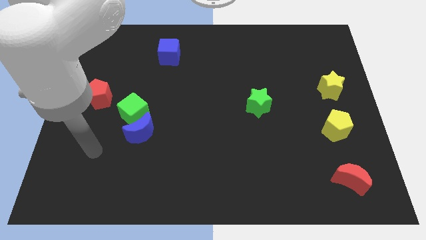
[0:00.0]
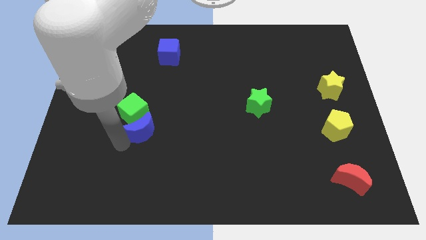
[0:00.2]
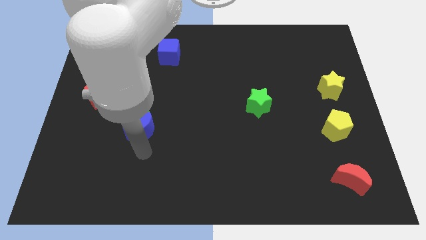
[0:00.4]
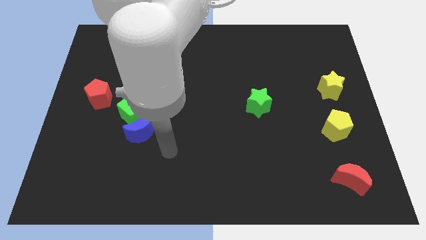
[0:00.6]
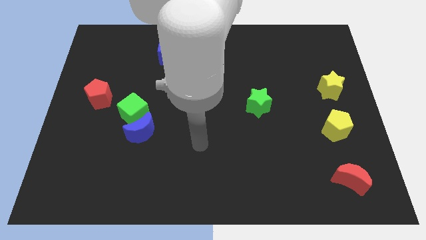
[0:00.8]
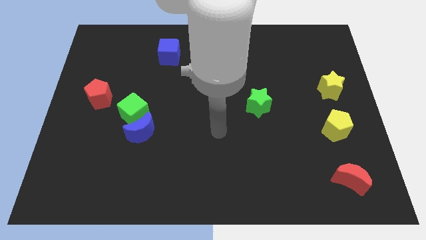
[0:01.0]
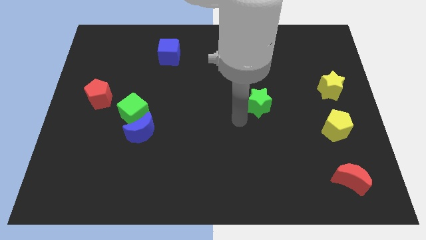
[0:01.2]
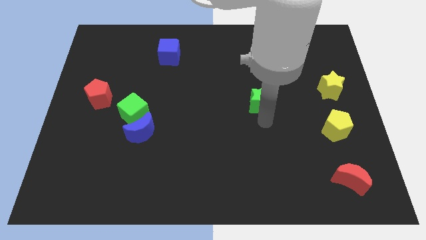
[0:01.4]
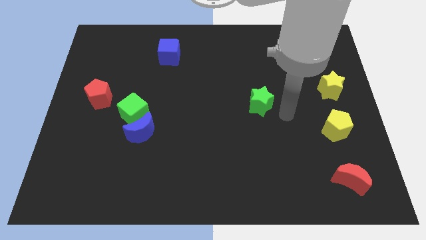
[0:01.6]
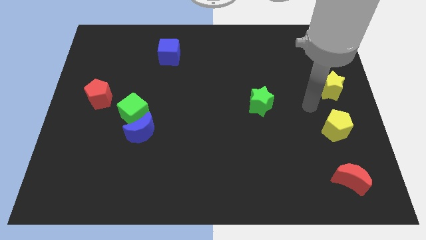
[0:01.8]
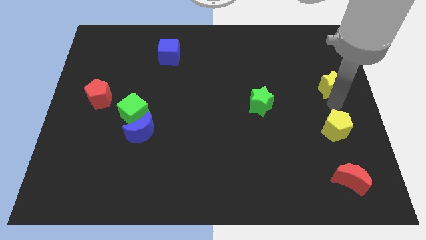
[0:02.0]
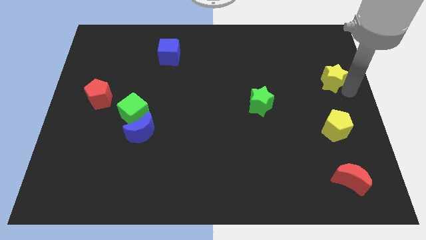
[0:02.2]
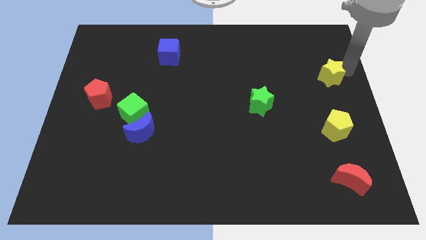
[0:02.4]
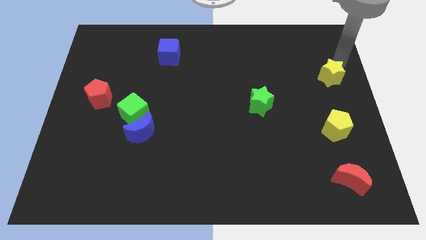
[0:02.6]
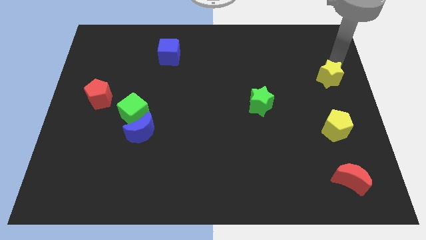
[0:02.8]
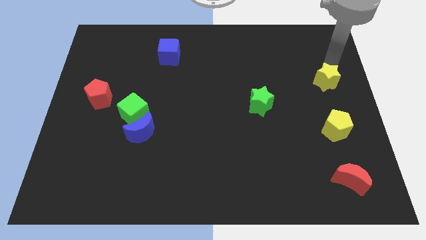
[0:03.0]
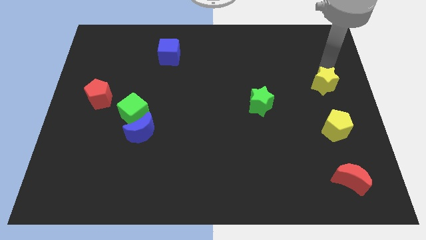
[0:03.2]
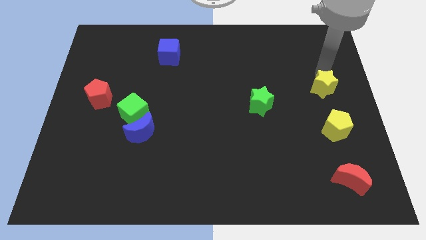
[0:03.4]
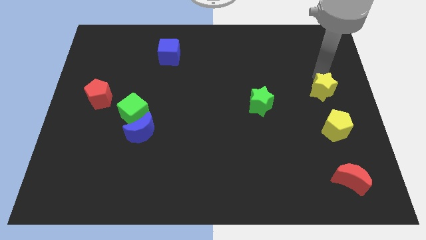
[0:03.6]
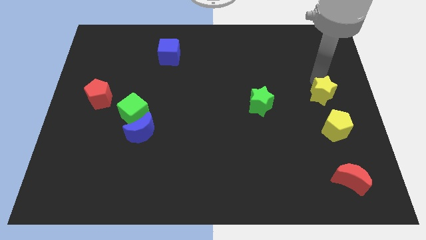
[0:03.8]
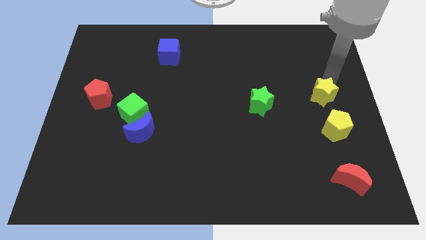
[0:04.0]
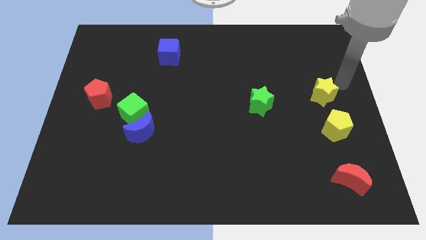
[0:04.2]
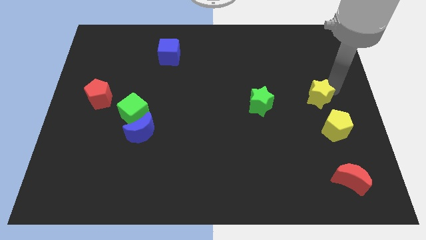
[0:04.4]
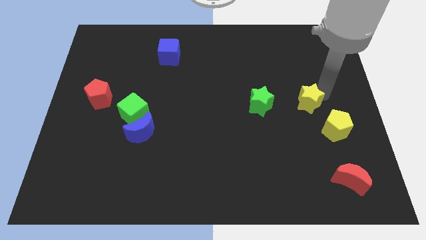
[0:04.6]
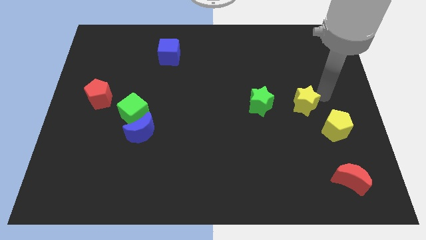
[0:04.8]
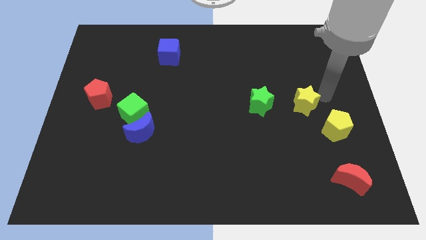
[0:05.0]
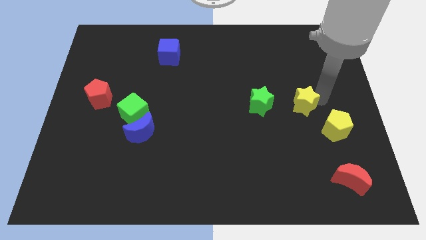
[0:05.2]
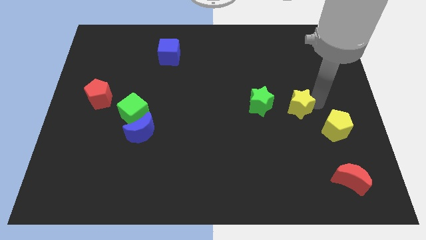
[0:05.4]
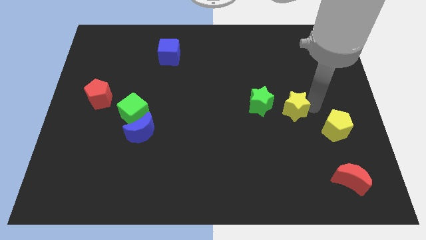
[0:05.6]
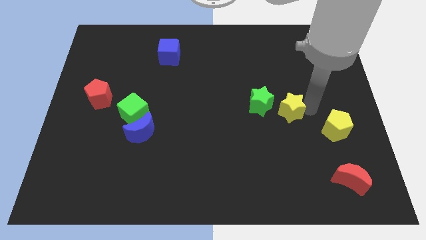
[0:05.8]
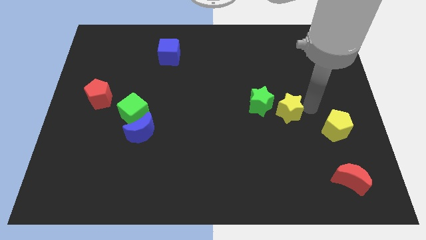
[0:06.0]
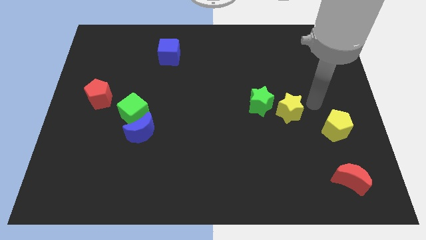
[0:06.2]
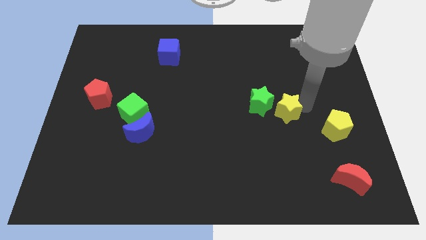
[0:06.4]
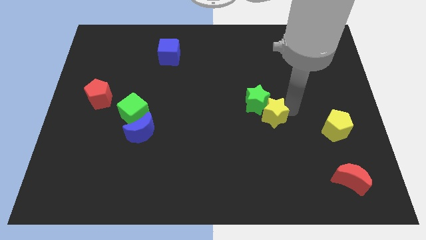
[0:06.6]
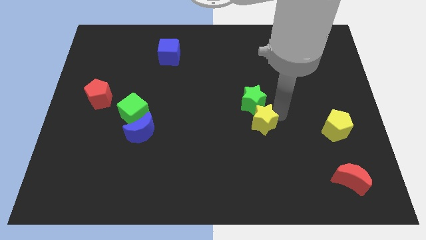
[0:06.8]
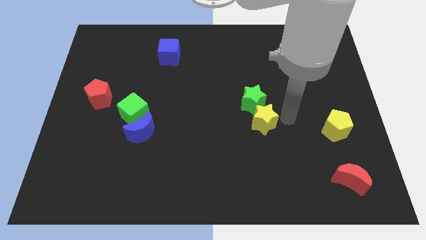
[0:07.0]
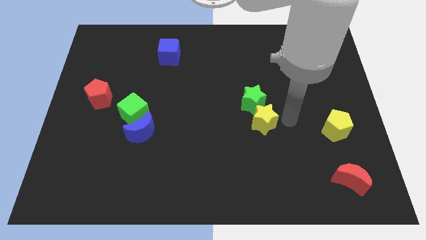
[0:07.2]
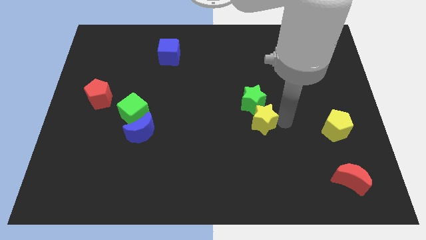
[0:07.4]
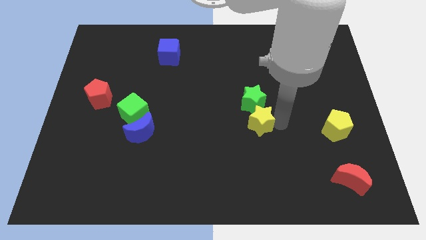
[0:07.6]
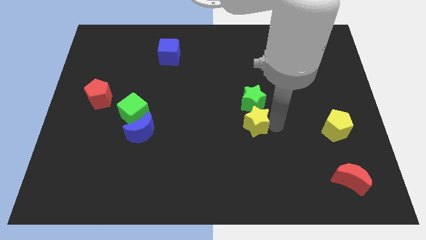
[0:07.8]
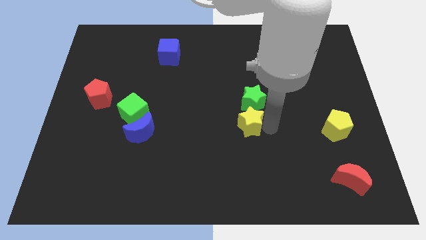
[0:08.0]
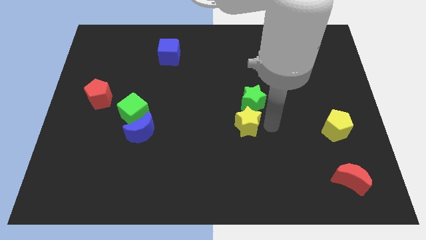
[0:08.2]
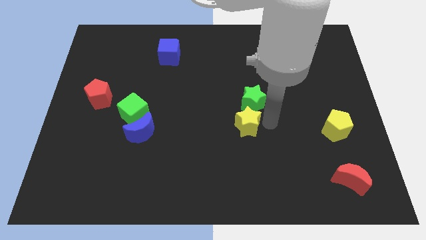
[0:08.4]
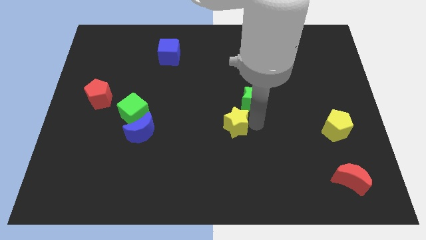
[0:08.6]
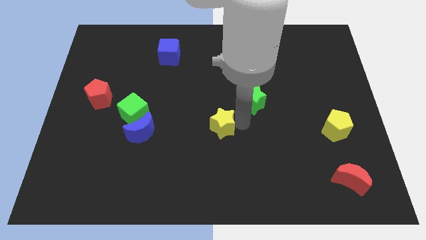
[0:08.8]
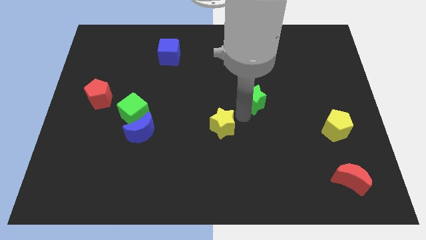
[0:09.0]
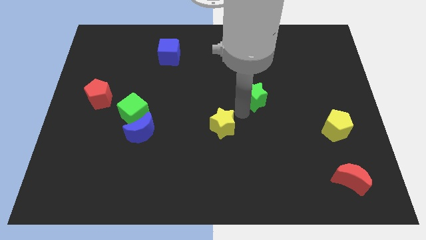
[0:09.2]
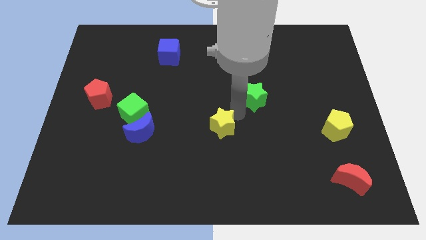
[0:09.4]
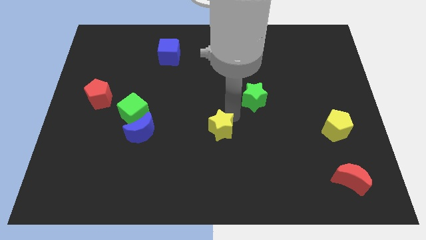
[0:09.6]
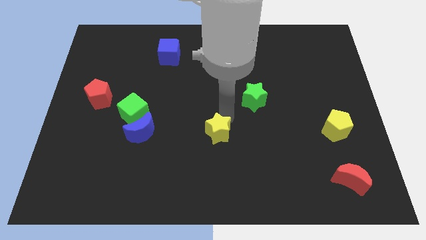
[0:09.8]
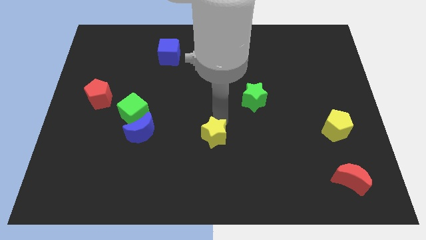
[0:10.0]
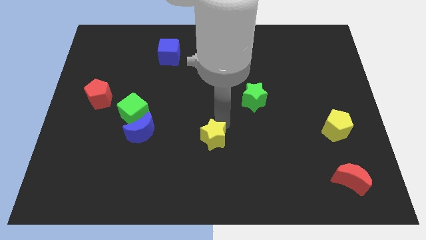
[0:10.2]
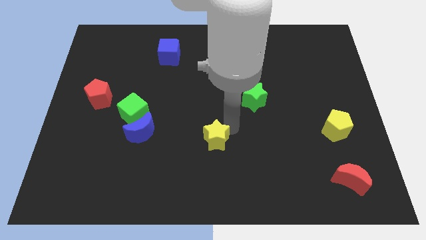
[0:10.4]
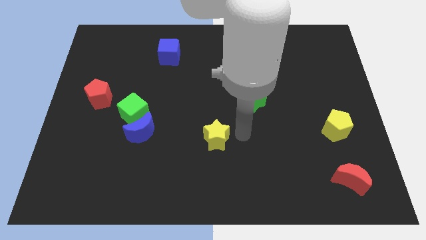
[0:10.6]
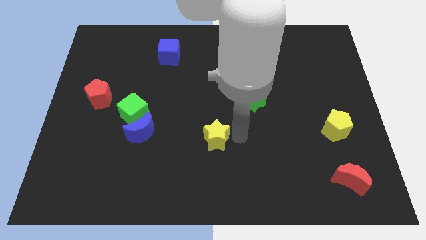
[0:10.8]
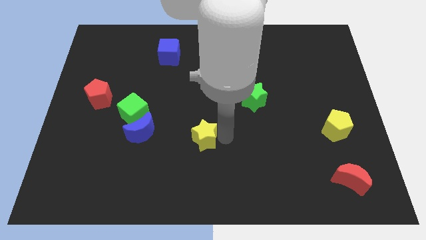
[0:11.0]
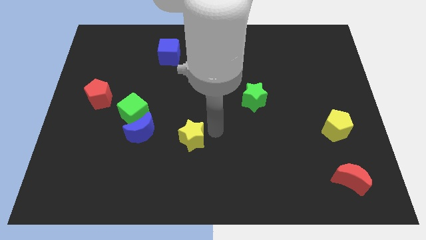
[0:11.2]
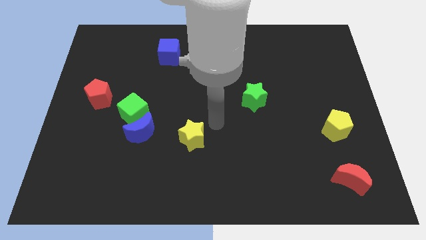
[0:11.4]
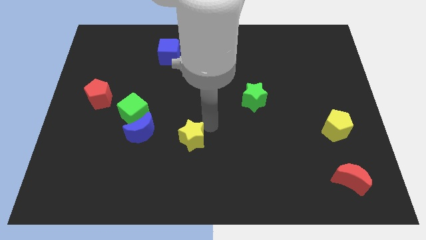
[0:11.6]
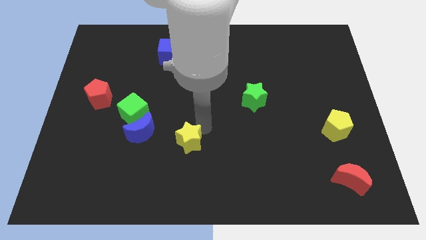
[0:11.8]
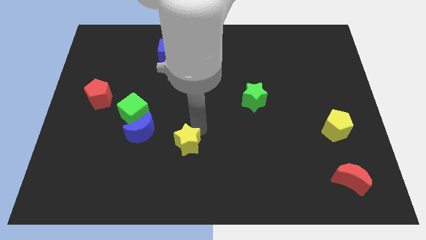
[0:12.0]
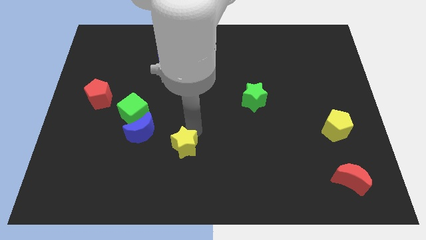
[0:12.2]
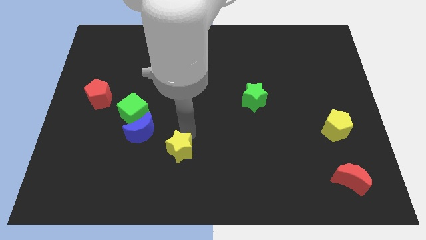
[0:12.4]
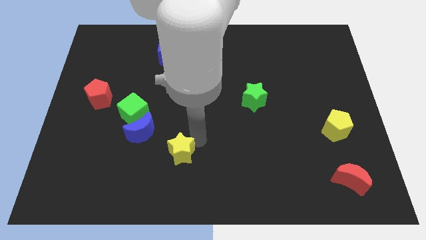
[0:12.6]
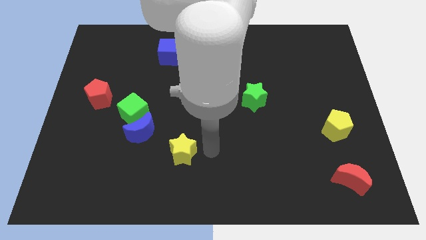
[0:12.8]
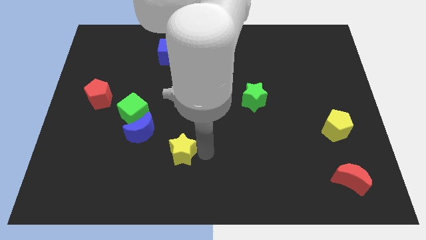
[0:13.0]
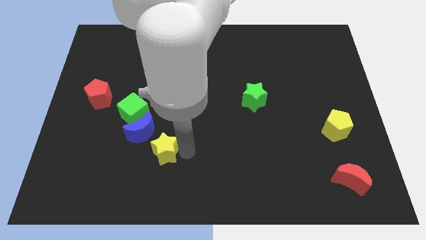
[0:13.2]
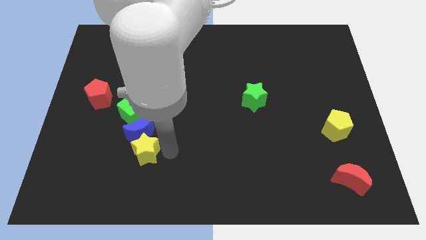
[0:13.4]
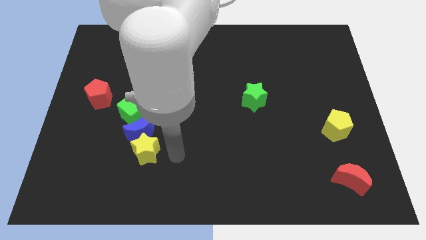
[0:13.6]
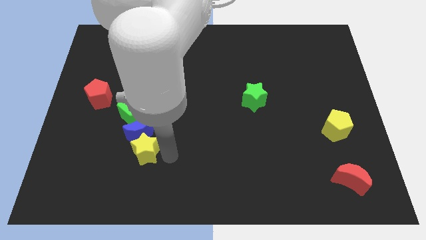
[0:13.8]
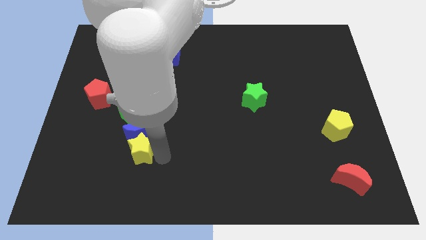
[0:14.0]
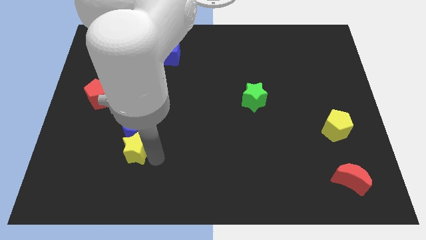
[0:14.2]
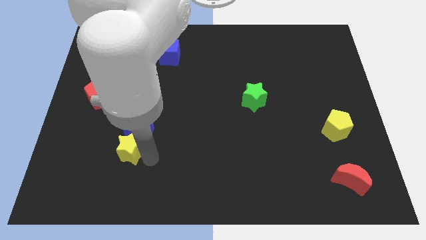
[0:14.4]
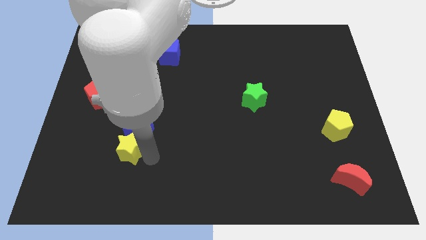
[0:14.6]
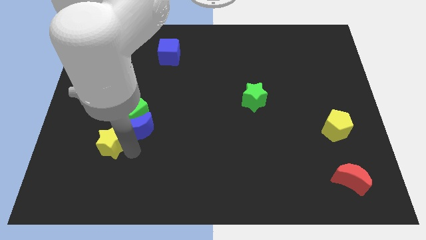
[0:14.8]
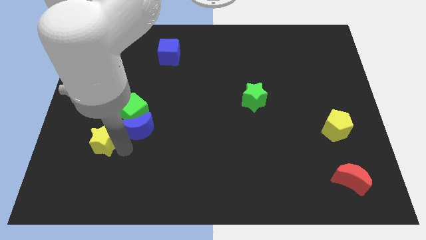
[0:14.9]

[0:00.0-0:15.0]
put the yellow star to the bottom of the red pentagon

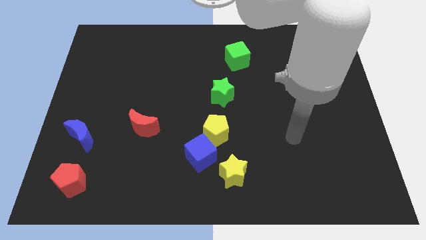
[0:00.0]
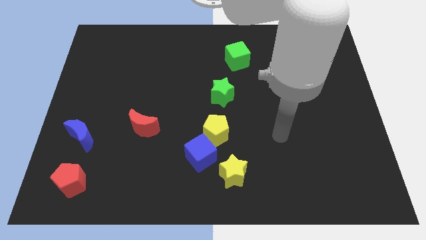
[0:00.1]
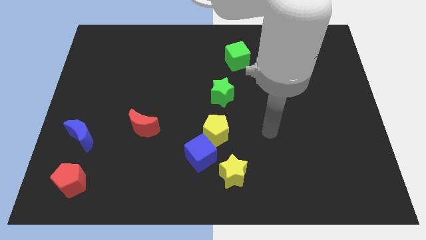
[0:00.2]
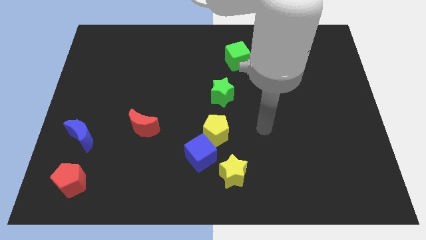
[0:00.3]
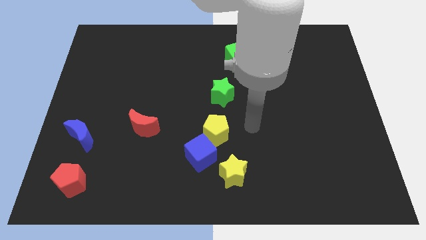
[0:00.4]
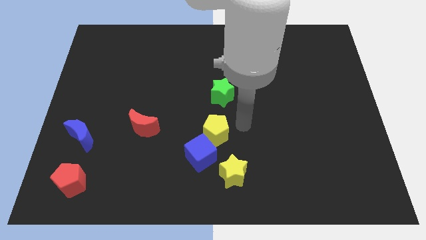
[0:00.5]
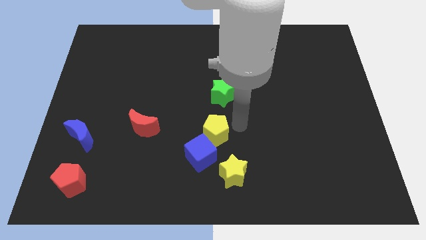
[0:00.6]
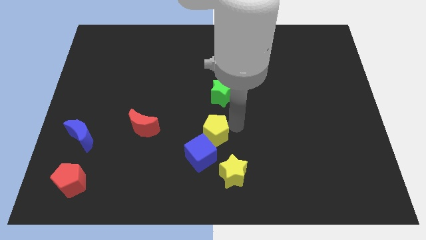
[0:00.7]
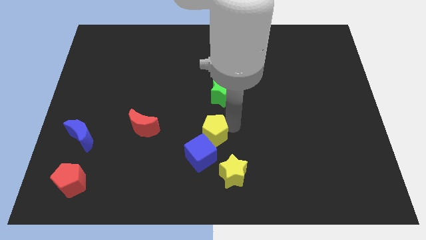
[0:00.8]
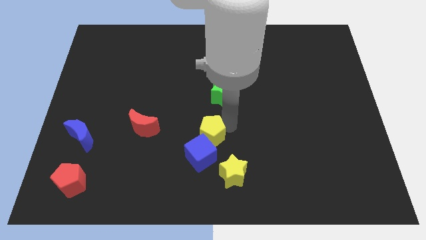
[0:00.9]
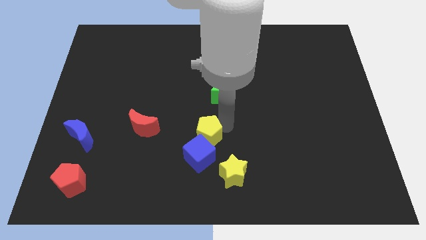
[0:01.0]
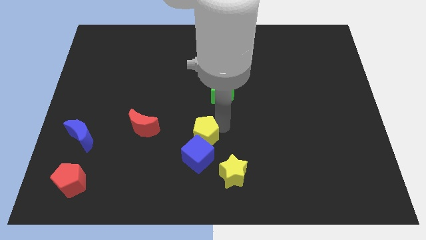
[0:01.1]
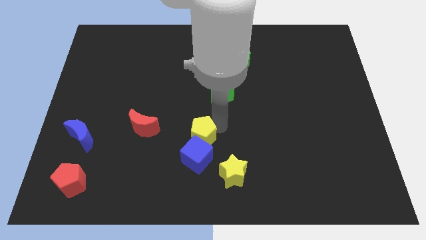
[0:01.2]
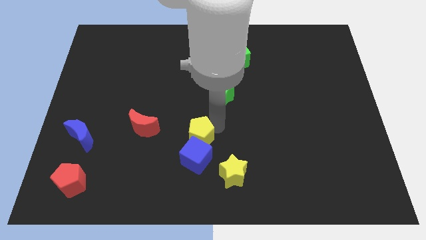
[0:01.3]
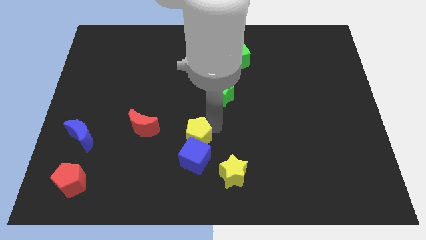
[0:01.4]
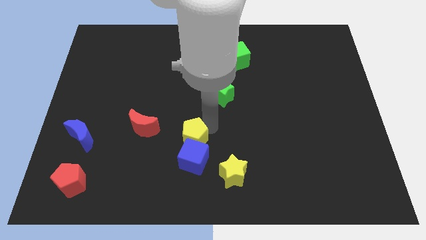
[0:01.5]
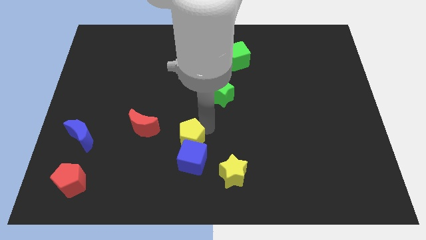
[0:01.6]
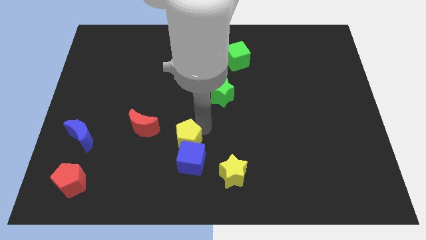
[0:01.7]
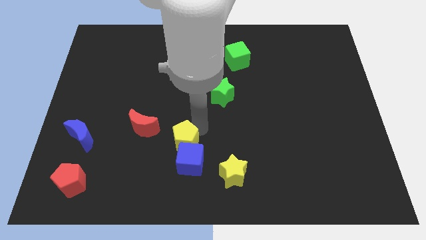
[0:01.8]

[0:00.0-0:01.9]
move the yellow pentagon to the bottom right of the red moon
